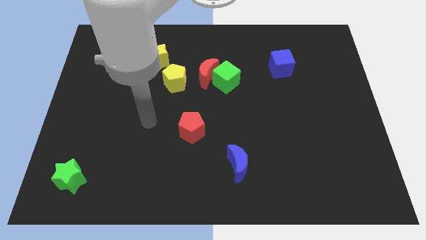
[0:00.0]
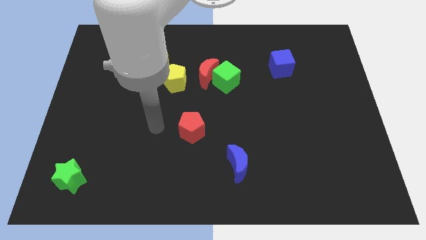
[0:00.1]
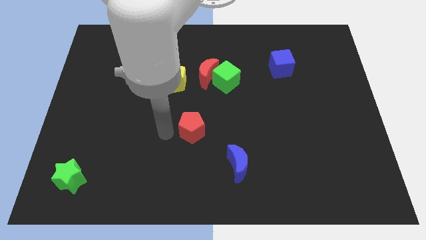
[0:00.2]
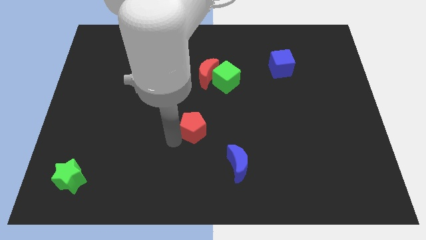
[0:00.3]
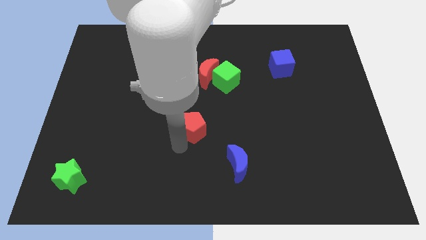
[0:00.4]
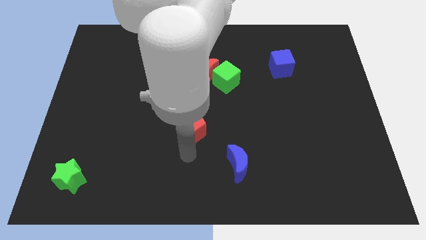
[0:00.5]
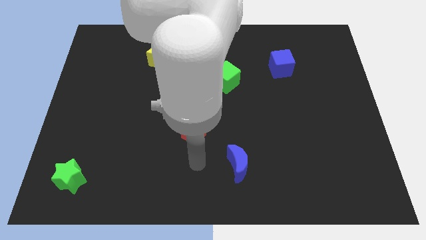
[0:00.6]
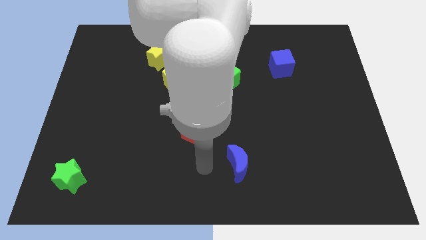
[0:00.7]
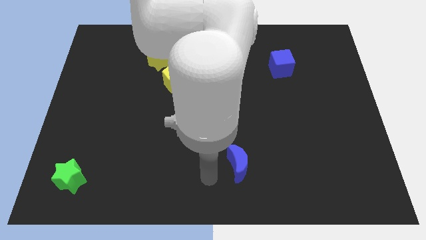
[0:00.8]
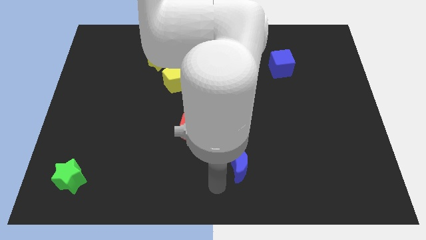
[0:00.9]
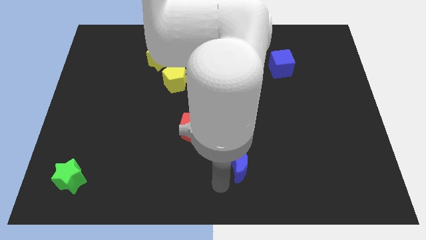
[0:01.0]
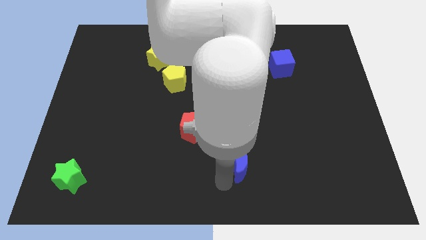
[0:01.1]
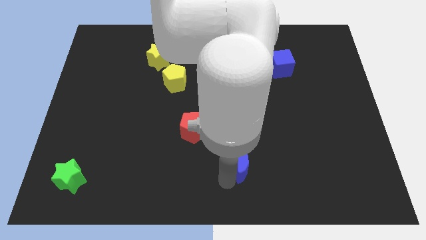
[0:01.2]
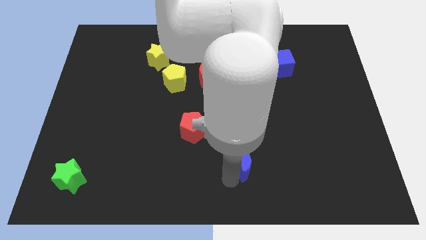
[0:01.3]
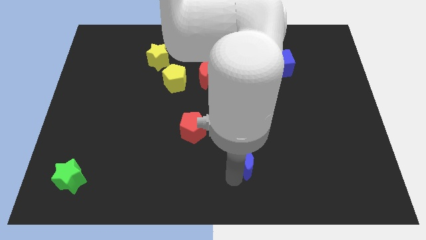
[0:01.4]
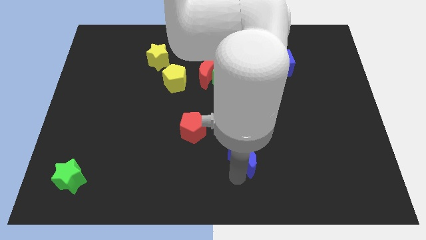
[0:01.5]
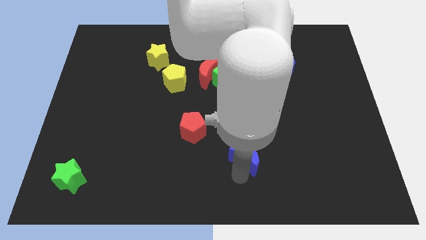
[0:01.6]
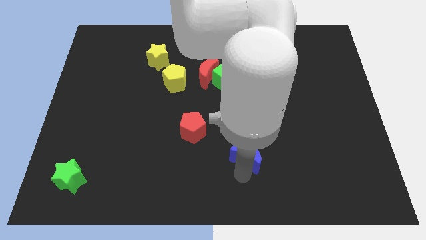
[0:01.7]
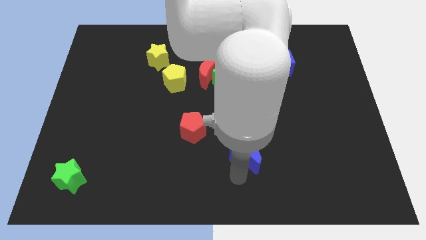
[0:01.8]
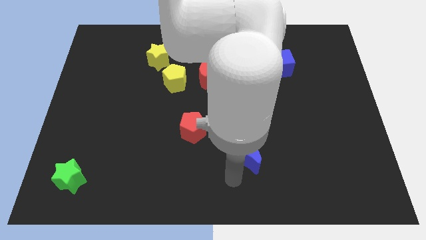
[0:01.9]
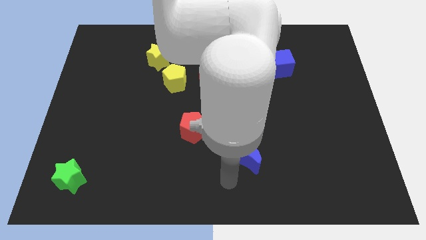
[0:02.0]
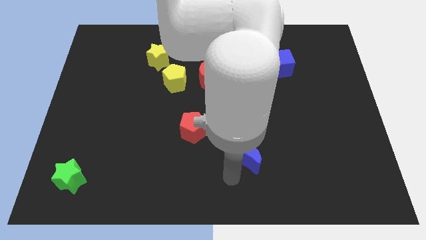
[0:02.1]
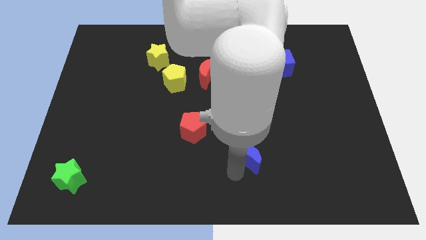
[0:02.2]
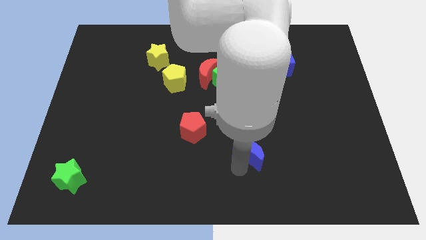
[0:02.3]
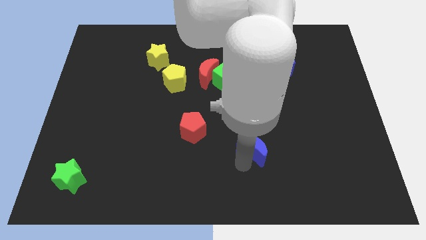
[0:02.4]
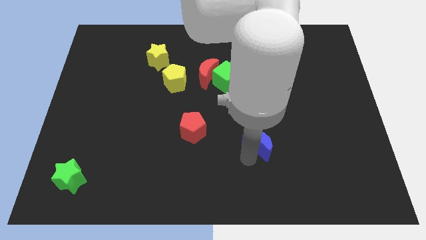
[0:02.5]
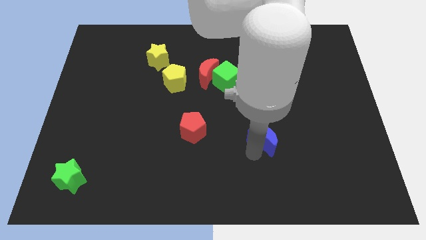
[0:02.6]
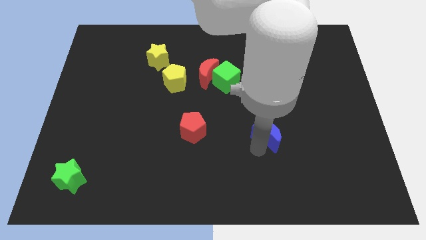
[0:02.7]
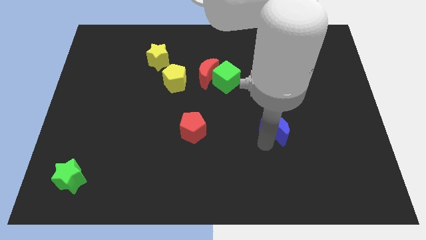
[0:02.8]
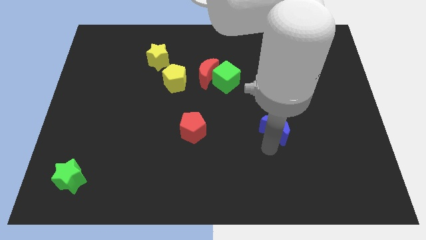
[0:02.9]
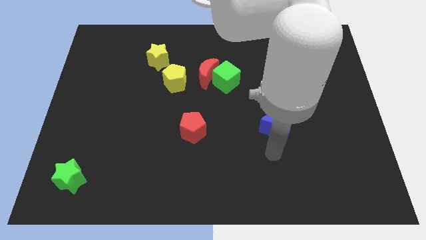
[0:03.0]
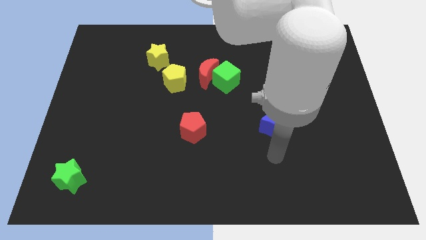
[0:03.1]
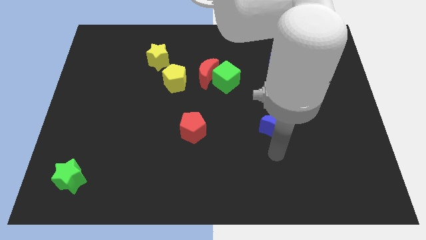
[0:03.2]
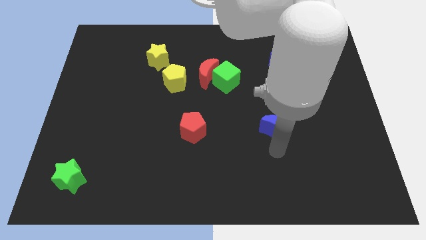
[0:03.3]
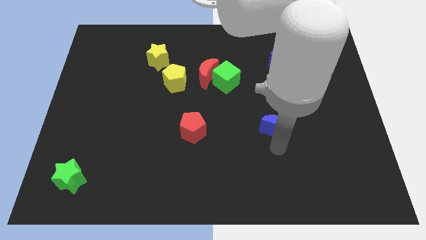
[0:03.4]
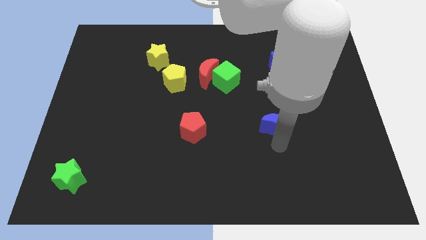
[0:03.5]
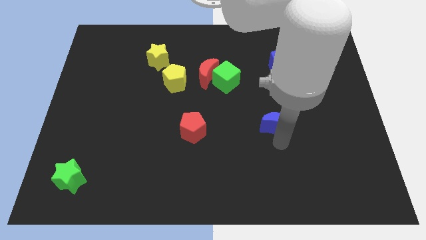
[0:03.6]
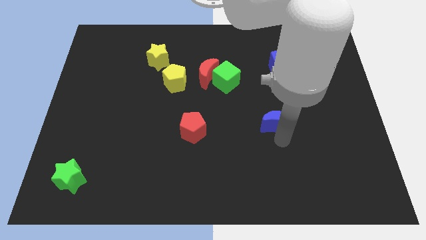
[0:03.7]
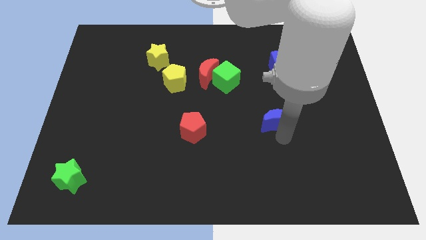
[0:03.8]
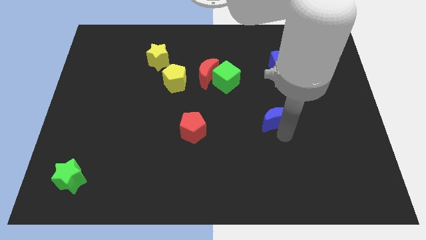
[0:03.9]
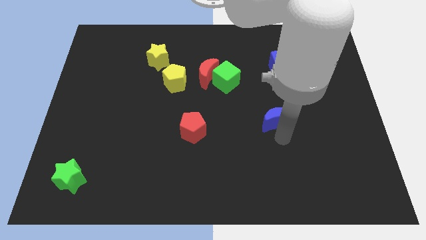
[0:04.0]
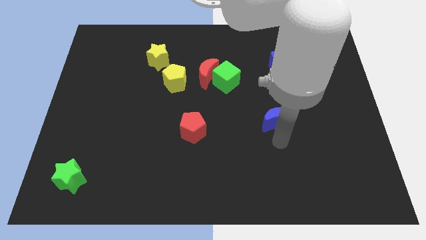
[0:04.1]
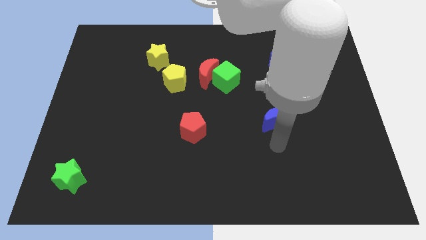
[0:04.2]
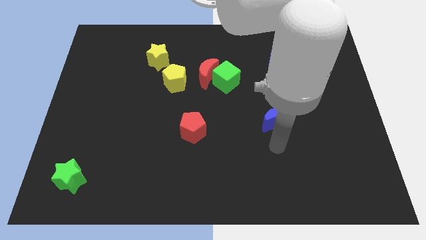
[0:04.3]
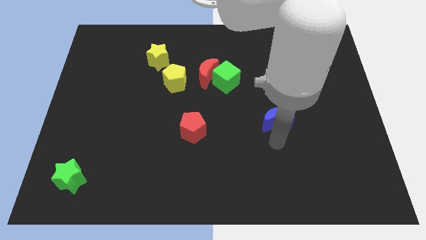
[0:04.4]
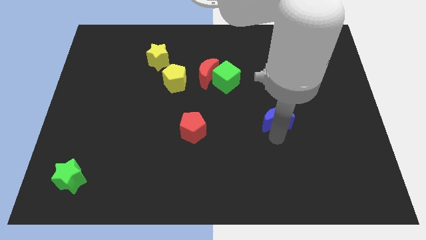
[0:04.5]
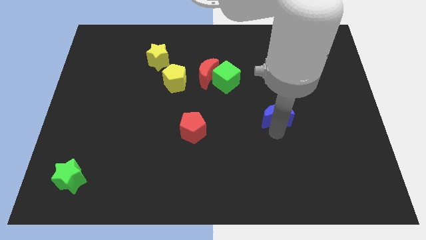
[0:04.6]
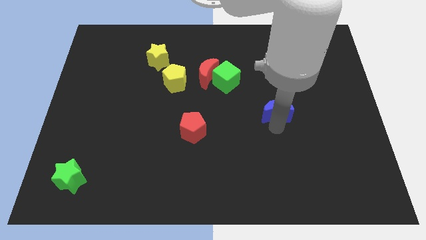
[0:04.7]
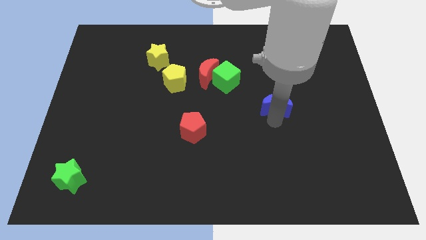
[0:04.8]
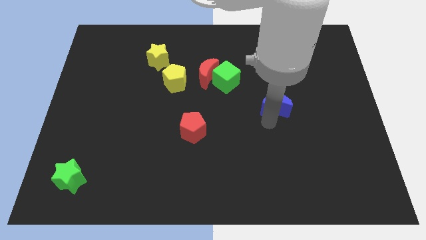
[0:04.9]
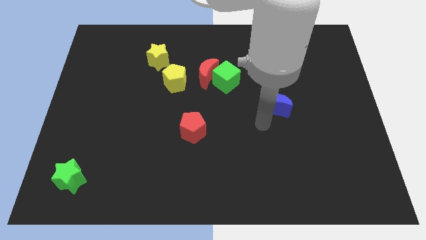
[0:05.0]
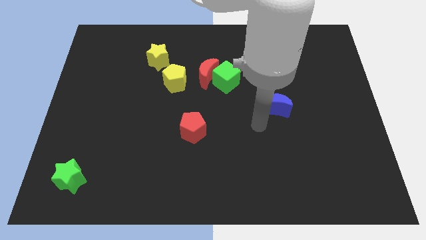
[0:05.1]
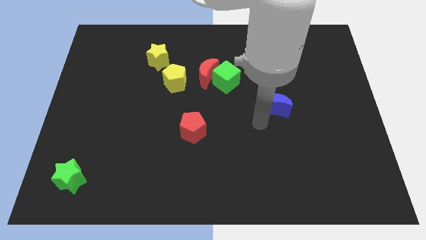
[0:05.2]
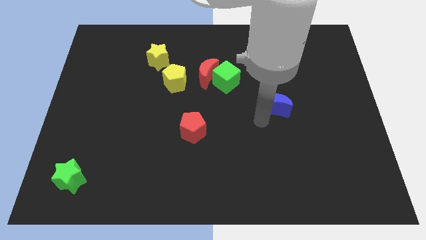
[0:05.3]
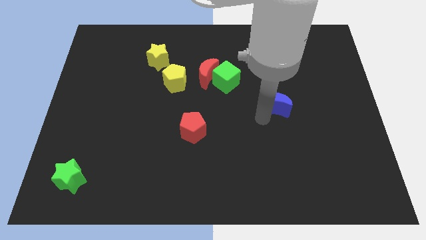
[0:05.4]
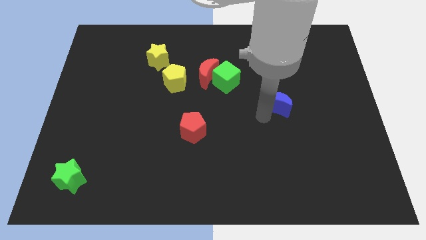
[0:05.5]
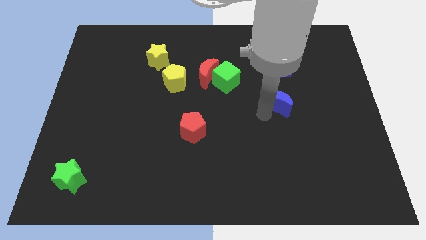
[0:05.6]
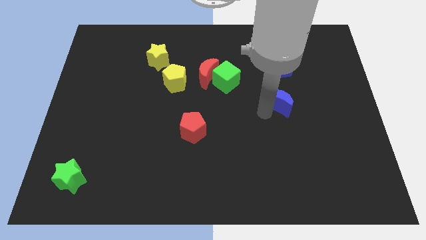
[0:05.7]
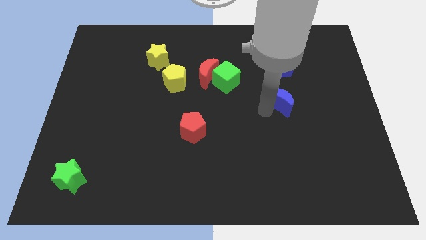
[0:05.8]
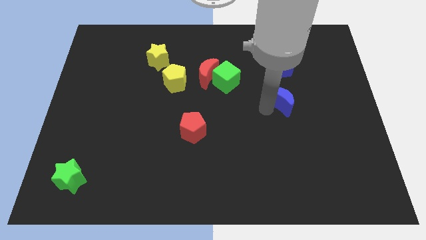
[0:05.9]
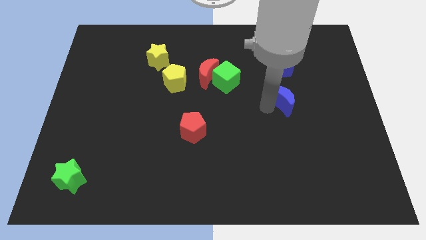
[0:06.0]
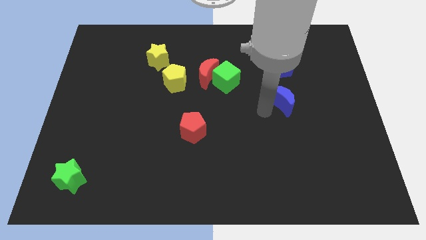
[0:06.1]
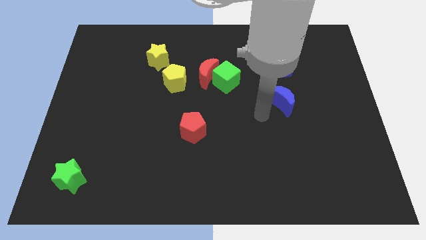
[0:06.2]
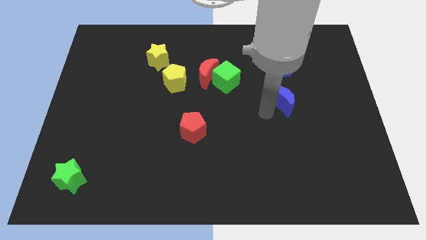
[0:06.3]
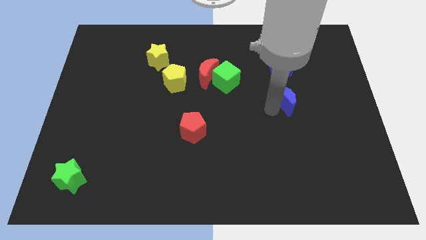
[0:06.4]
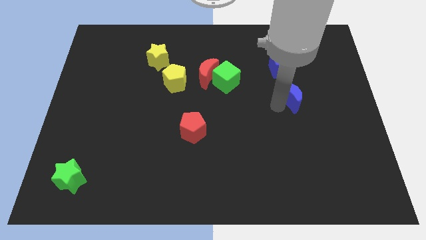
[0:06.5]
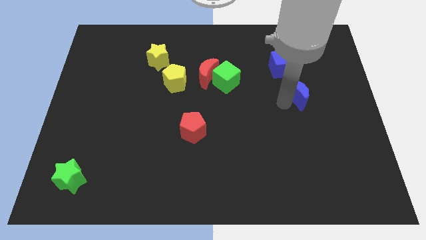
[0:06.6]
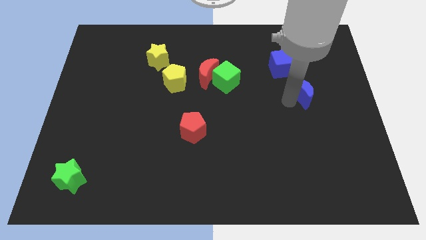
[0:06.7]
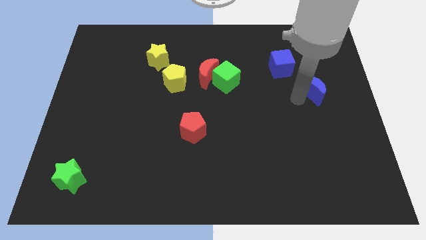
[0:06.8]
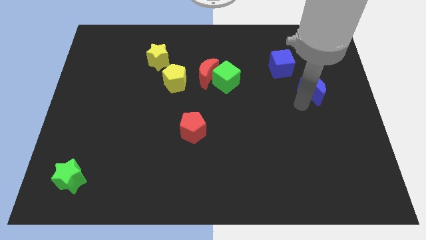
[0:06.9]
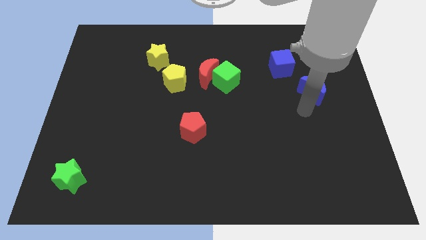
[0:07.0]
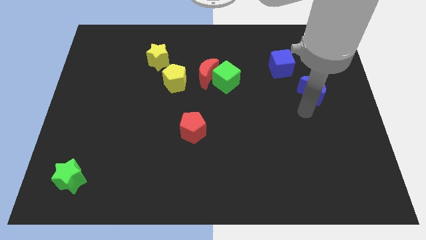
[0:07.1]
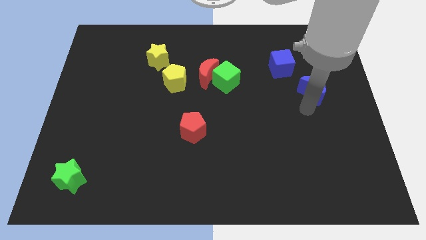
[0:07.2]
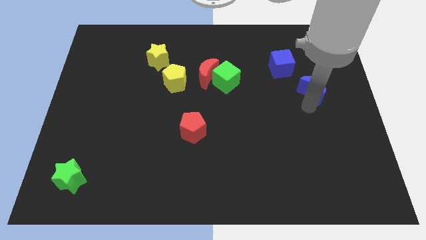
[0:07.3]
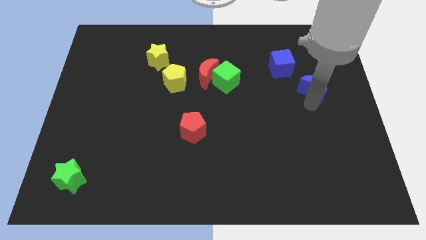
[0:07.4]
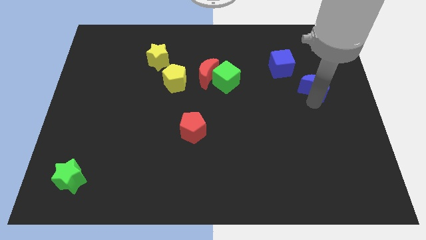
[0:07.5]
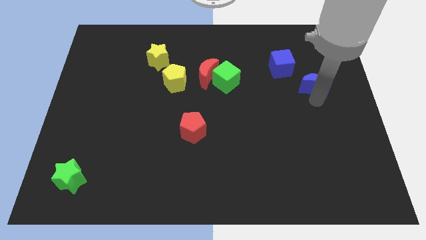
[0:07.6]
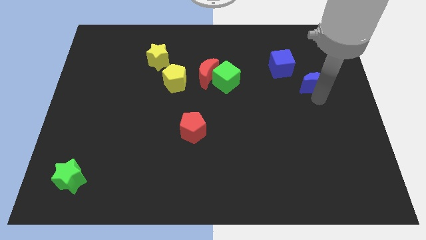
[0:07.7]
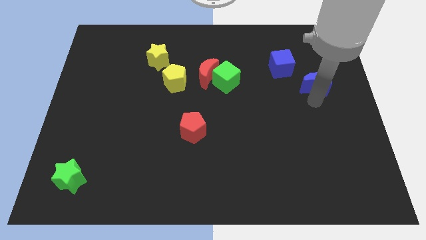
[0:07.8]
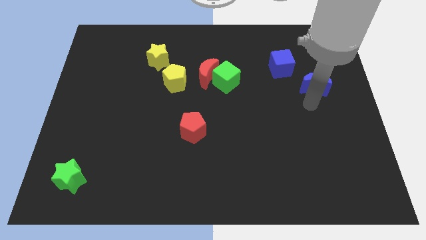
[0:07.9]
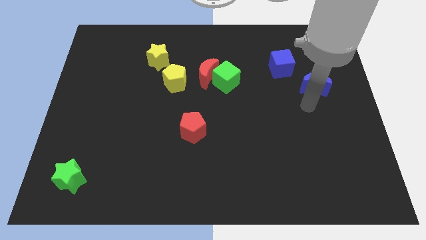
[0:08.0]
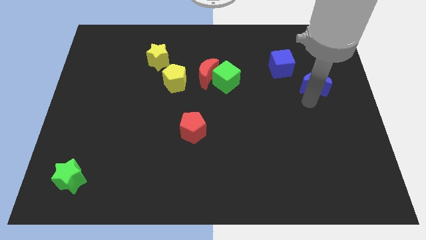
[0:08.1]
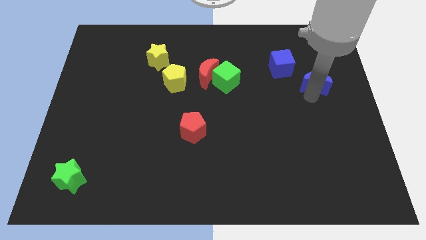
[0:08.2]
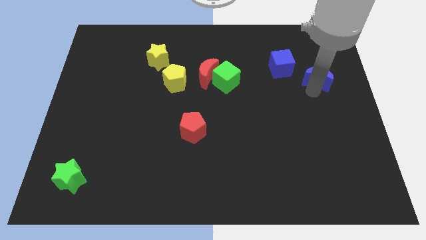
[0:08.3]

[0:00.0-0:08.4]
put the blue moon to the right side of the blue cube
